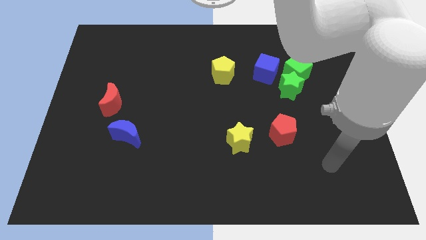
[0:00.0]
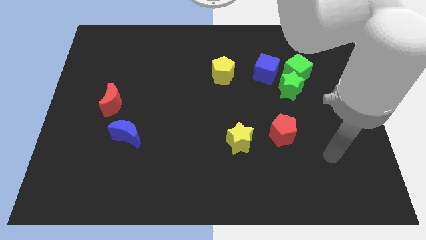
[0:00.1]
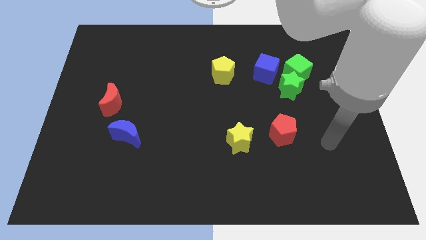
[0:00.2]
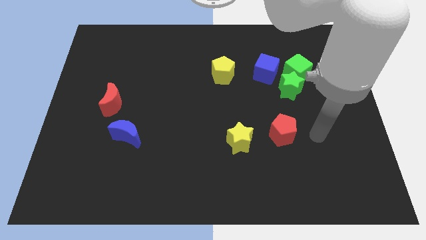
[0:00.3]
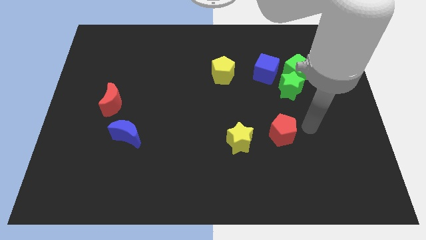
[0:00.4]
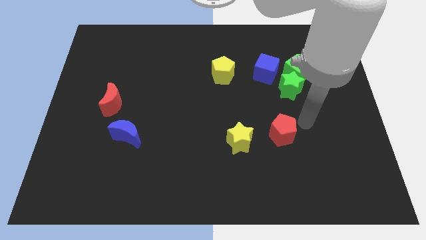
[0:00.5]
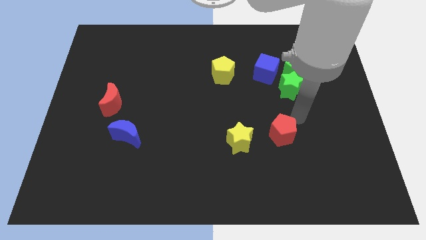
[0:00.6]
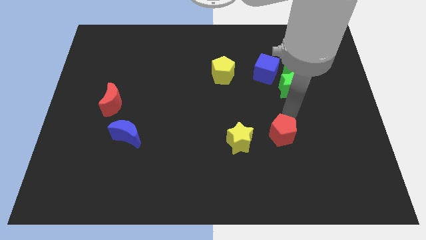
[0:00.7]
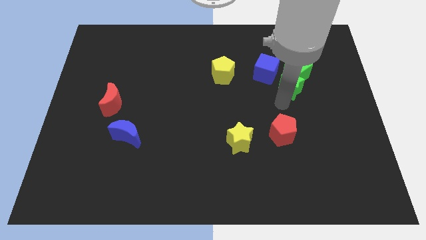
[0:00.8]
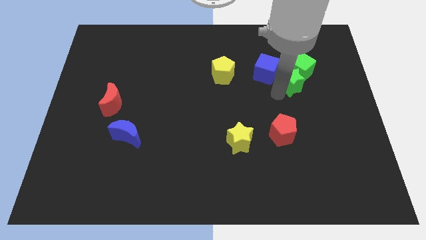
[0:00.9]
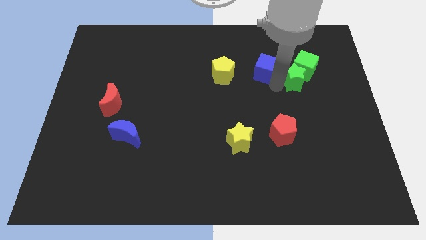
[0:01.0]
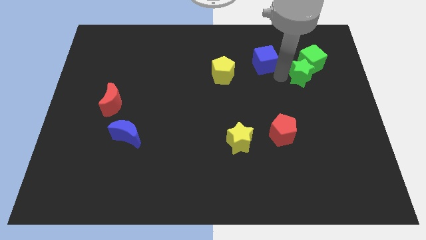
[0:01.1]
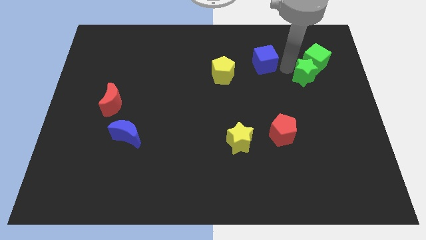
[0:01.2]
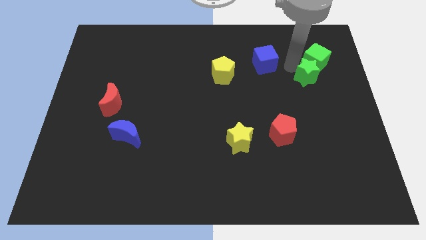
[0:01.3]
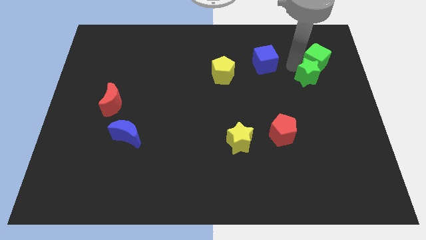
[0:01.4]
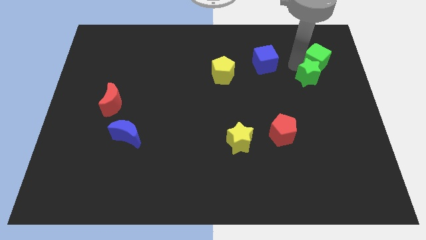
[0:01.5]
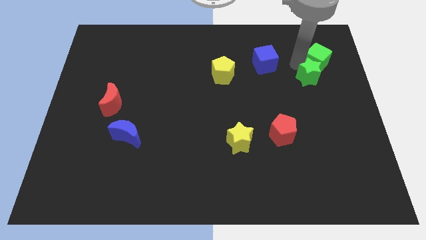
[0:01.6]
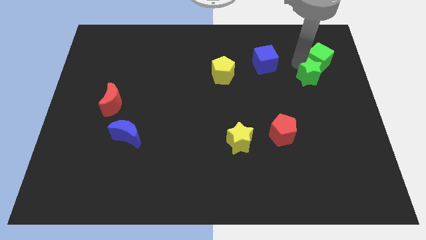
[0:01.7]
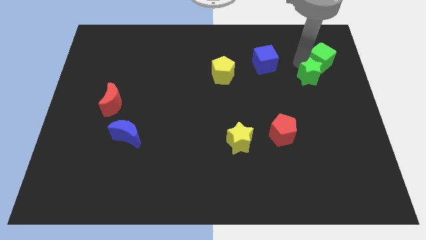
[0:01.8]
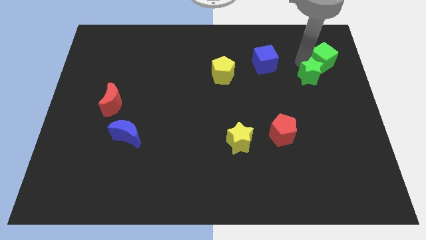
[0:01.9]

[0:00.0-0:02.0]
move the green cube away from the green star and blue cube

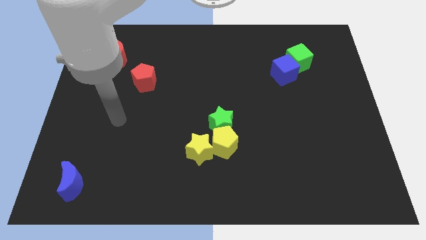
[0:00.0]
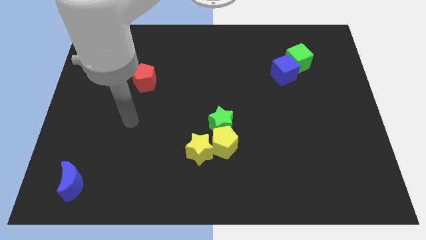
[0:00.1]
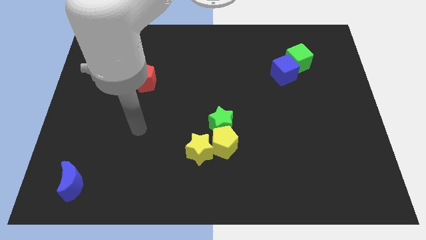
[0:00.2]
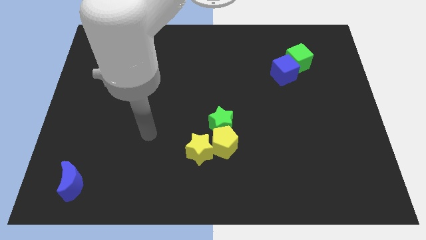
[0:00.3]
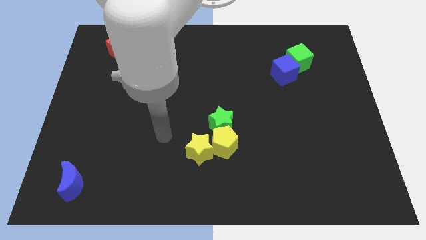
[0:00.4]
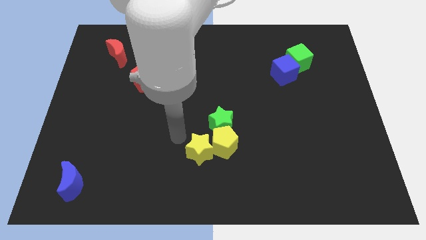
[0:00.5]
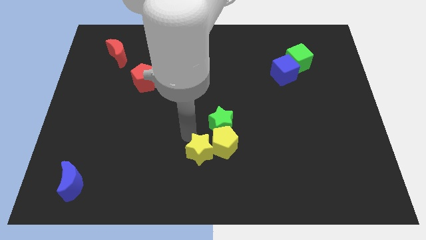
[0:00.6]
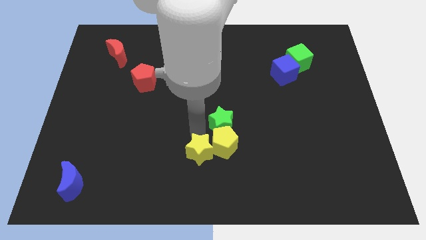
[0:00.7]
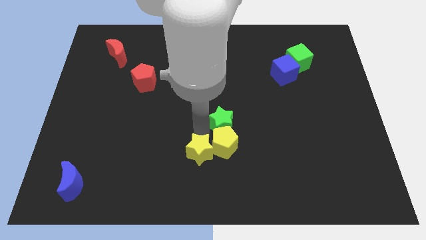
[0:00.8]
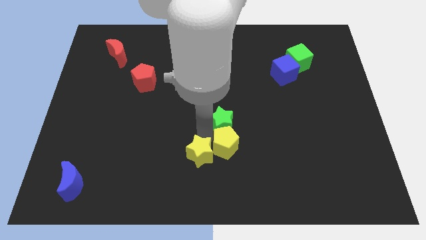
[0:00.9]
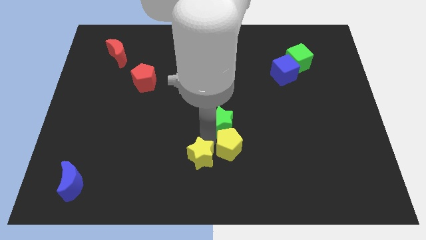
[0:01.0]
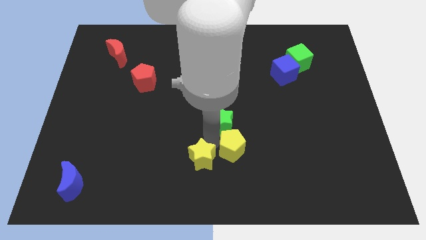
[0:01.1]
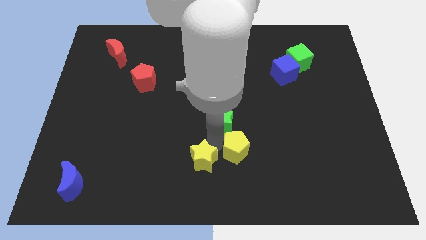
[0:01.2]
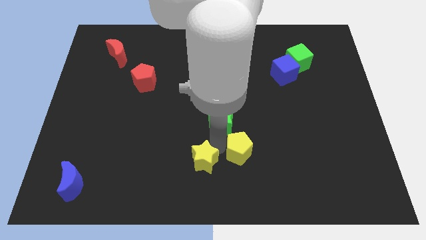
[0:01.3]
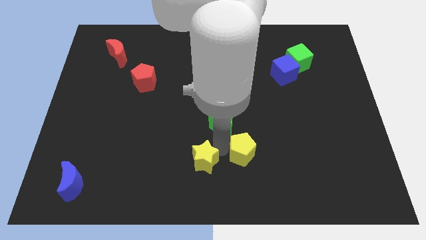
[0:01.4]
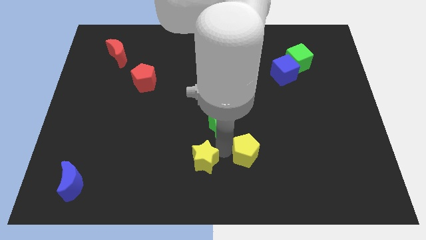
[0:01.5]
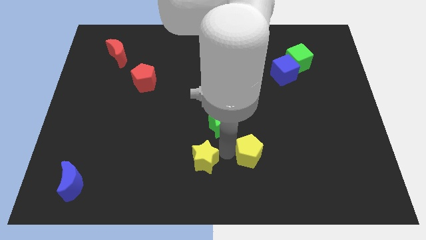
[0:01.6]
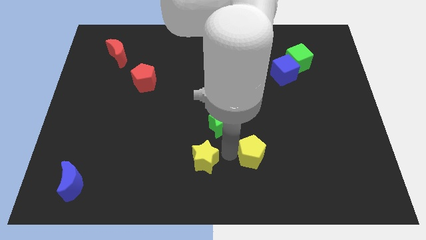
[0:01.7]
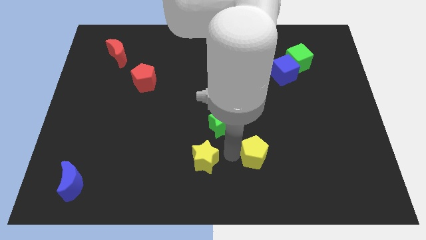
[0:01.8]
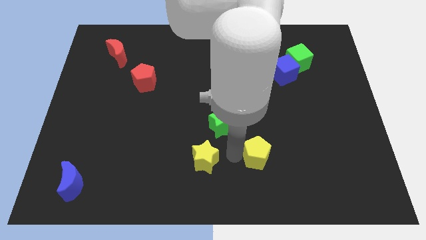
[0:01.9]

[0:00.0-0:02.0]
move the yellow pentagon away from the green star and yellow star

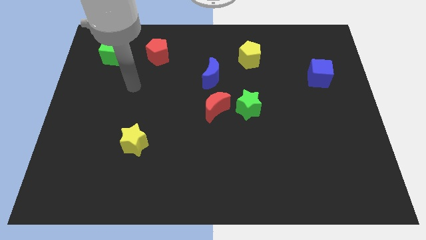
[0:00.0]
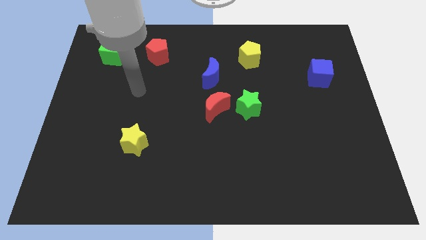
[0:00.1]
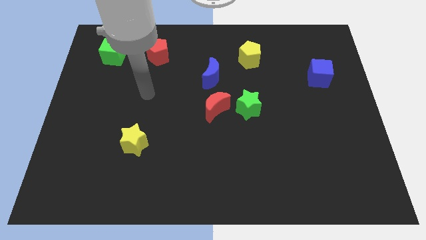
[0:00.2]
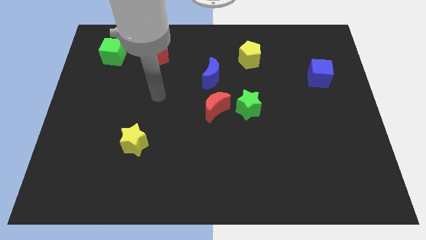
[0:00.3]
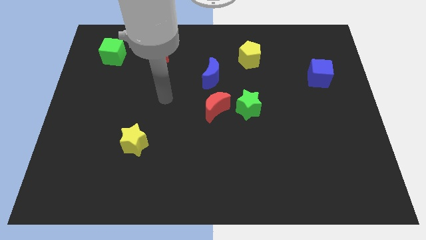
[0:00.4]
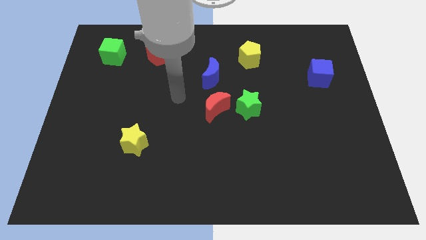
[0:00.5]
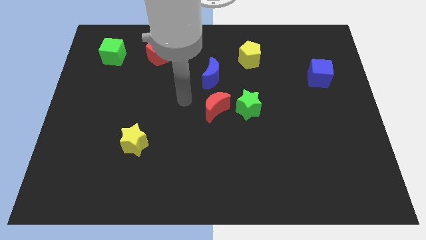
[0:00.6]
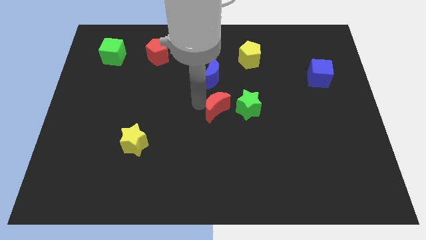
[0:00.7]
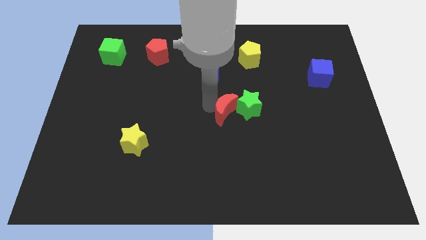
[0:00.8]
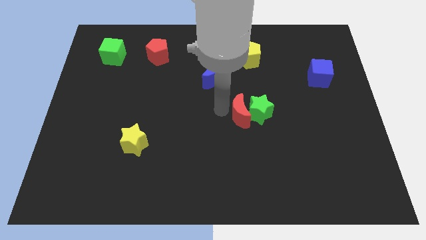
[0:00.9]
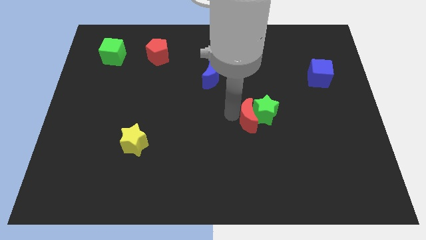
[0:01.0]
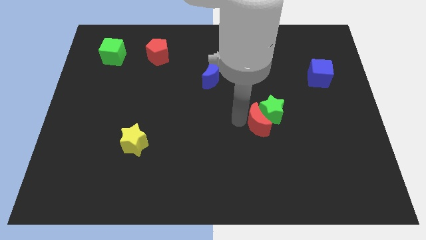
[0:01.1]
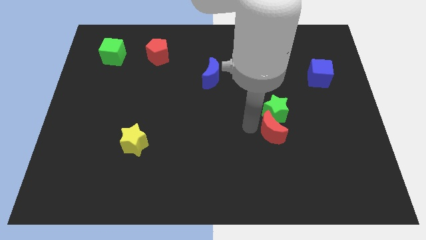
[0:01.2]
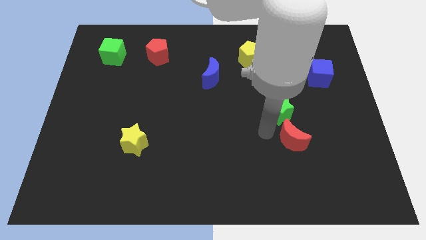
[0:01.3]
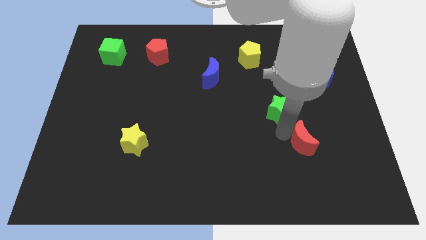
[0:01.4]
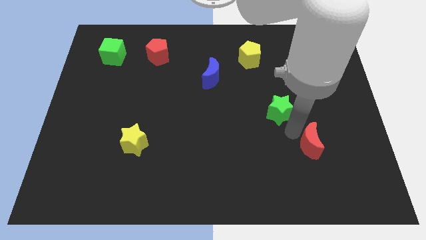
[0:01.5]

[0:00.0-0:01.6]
pull the green star apart from the red moon

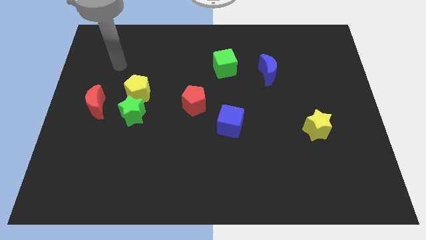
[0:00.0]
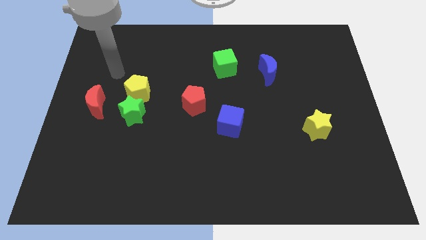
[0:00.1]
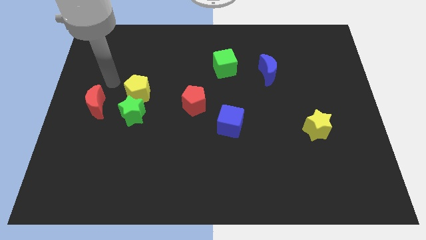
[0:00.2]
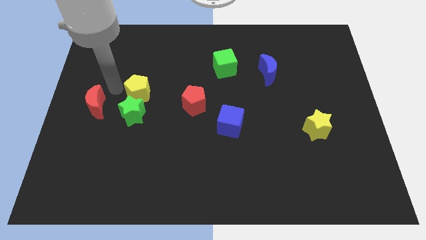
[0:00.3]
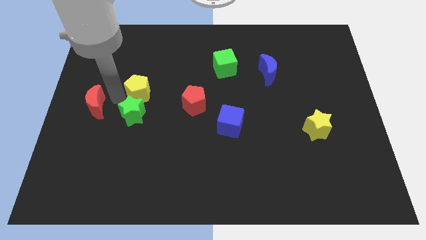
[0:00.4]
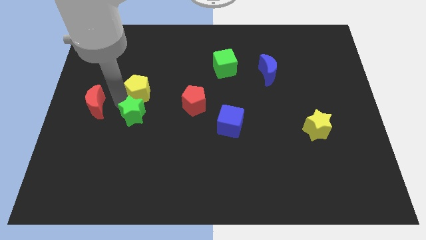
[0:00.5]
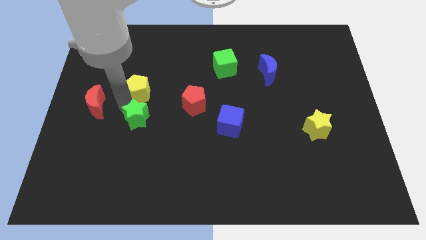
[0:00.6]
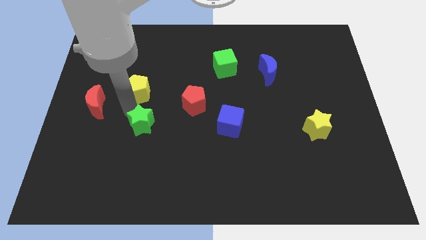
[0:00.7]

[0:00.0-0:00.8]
move the green star away from the yellow pentagon and red moon

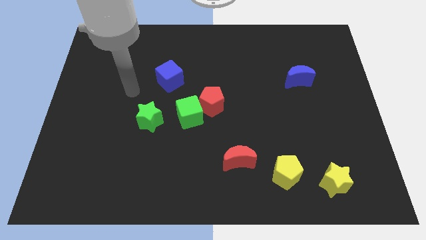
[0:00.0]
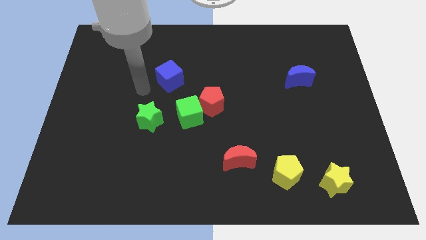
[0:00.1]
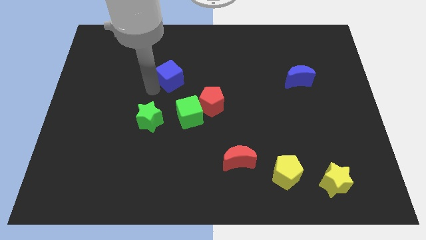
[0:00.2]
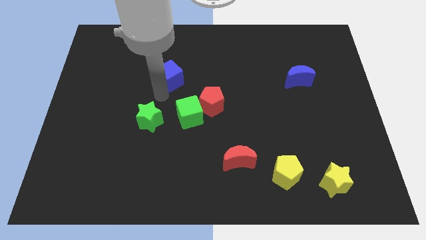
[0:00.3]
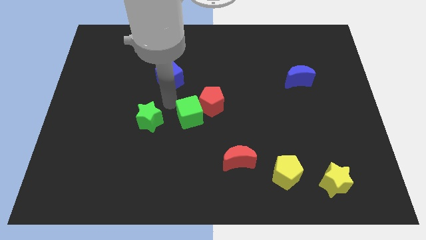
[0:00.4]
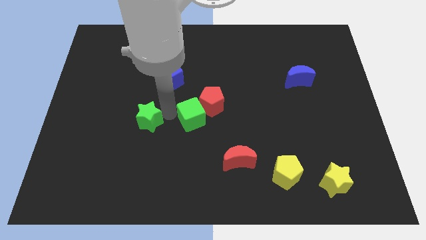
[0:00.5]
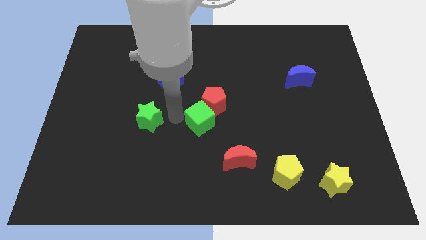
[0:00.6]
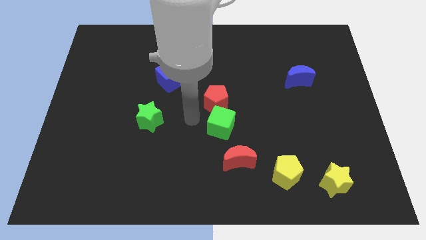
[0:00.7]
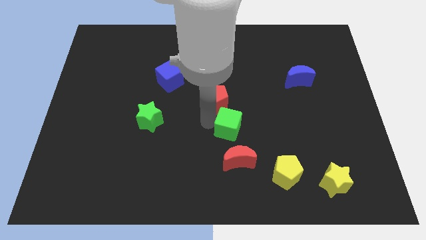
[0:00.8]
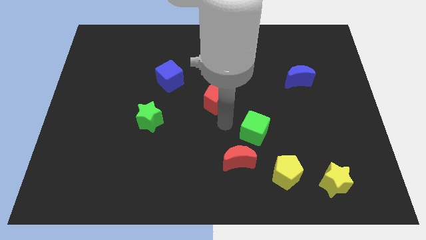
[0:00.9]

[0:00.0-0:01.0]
pull the red pentagon apart from the green cube

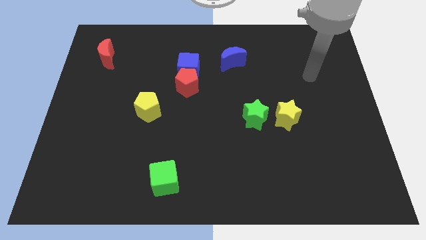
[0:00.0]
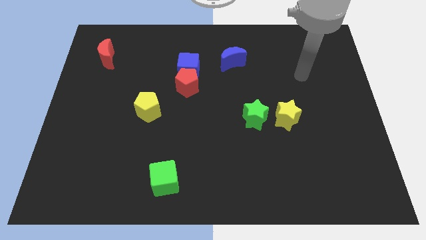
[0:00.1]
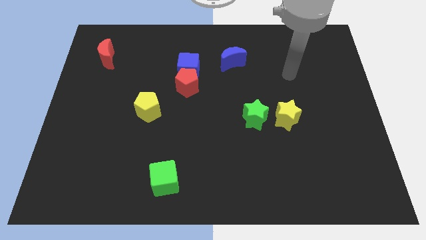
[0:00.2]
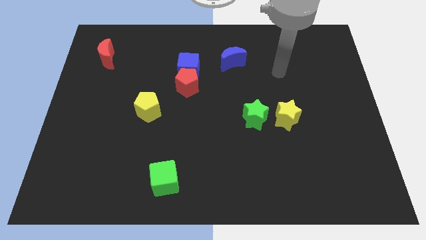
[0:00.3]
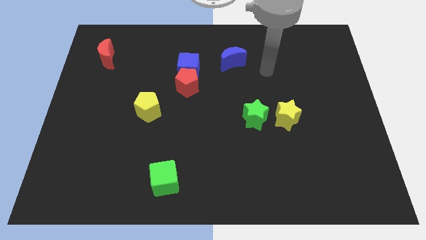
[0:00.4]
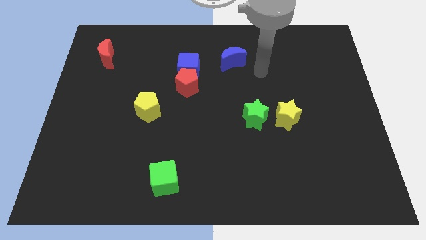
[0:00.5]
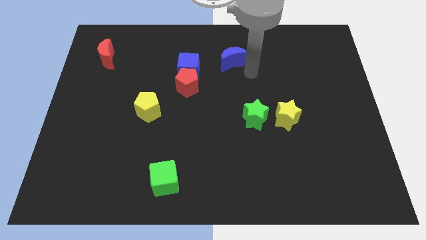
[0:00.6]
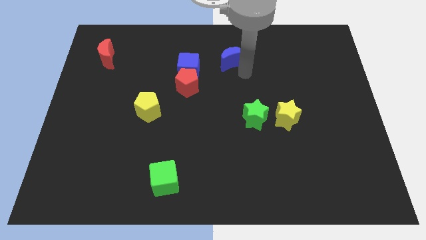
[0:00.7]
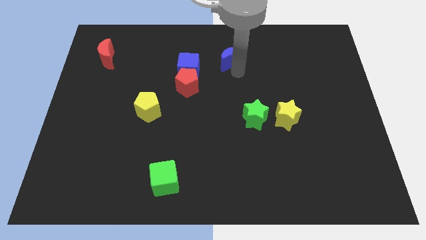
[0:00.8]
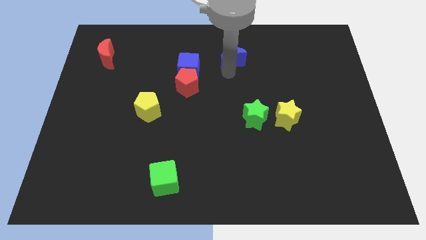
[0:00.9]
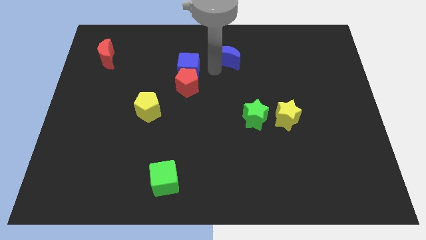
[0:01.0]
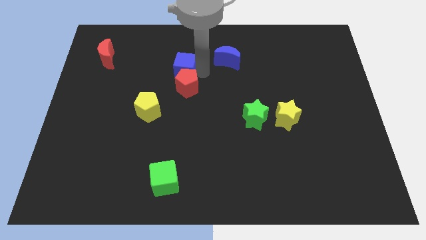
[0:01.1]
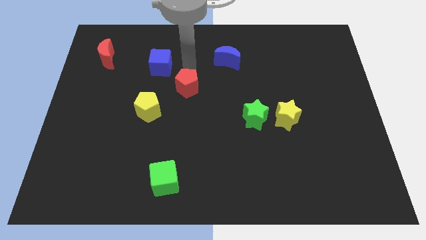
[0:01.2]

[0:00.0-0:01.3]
pull the red pentagon apart from the blue cube

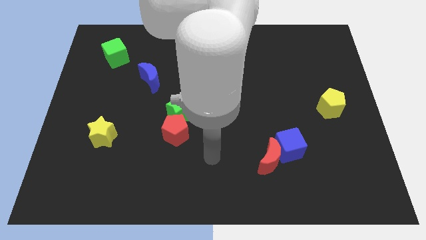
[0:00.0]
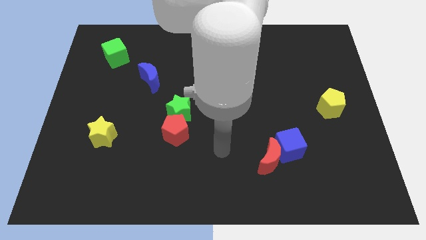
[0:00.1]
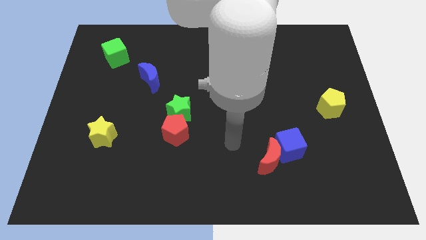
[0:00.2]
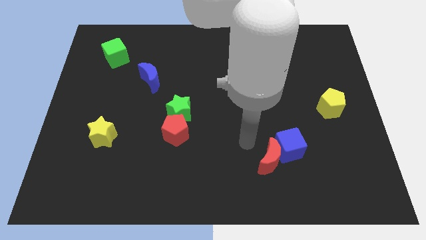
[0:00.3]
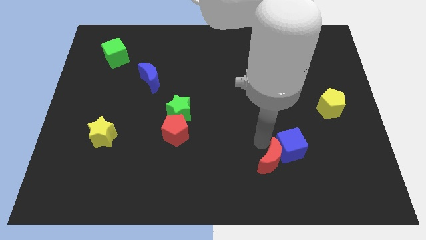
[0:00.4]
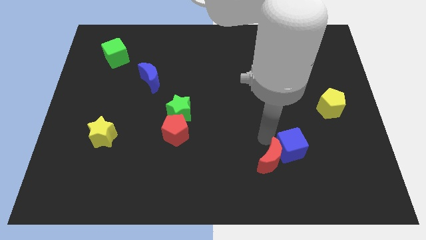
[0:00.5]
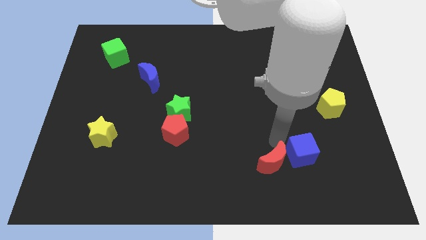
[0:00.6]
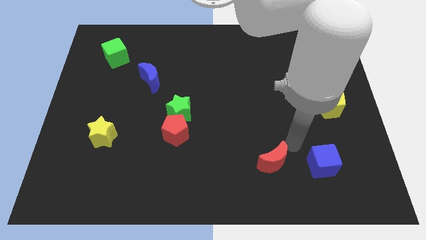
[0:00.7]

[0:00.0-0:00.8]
pull the red moon apart from the blue cube
